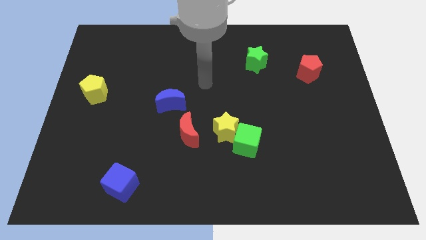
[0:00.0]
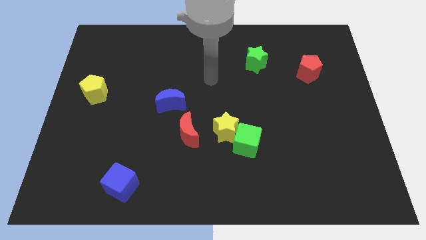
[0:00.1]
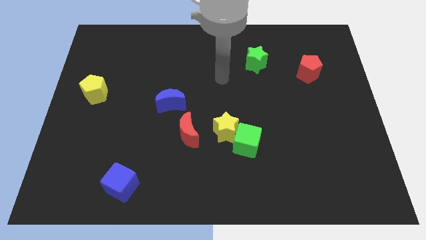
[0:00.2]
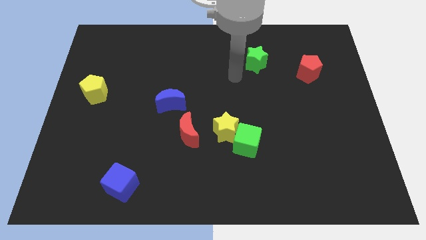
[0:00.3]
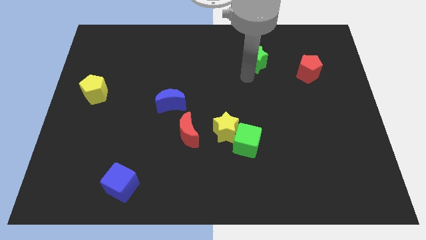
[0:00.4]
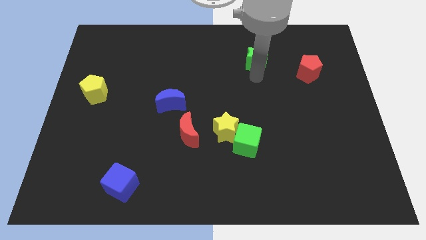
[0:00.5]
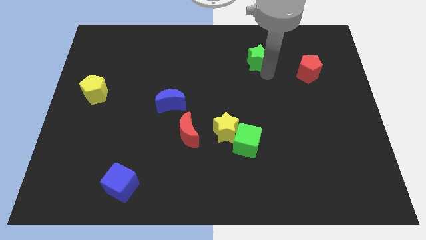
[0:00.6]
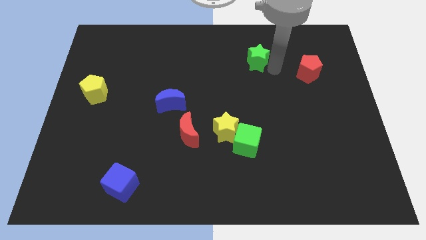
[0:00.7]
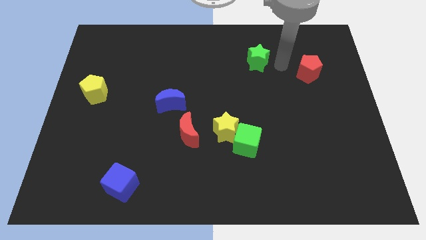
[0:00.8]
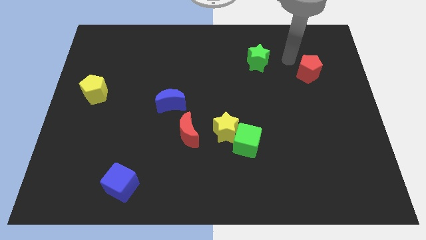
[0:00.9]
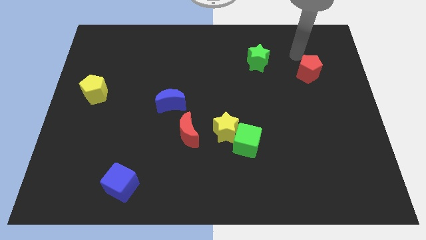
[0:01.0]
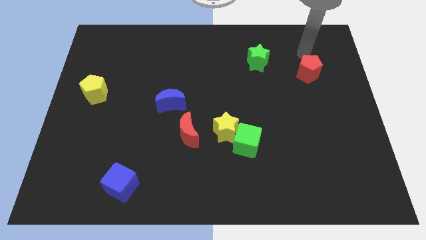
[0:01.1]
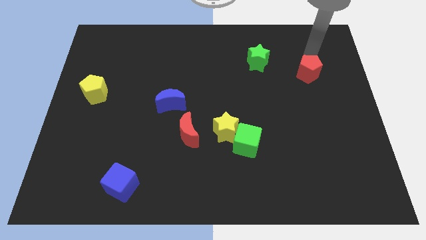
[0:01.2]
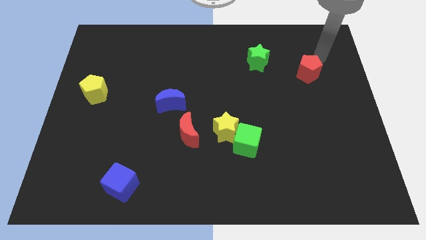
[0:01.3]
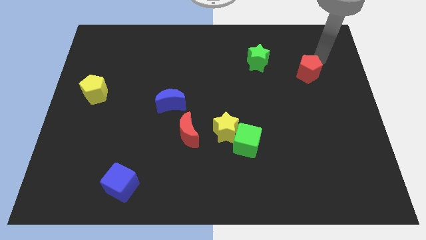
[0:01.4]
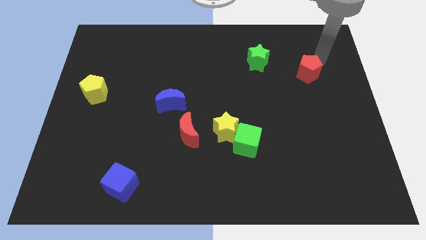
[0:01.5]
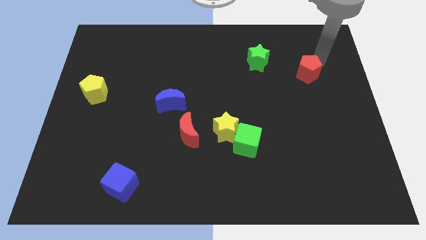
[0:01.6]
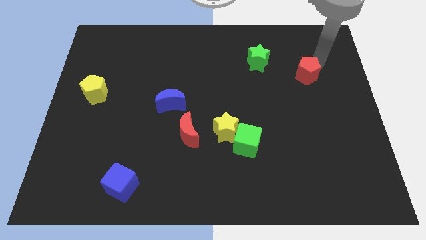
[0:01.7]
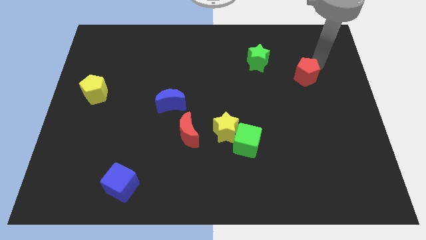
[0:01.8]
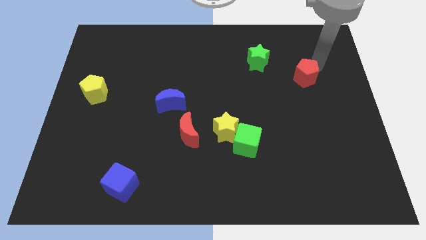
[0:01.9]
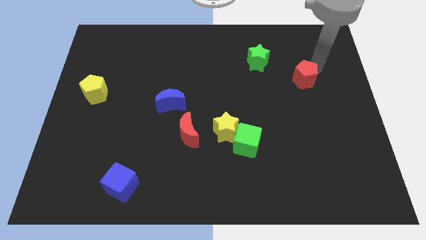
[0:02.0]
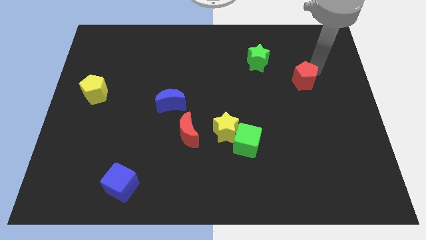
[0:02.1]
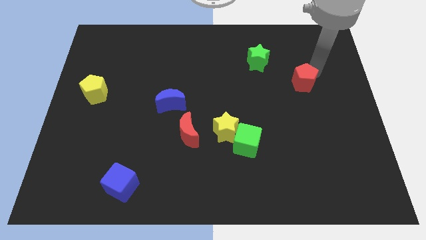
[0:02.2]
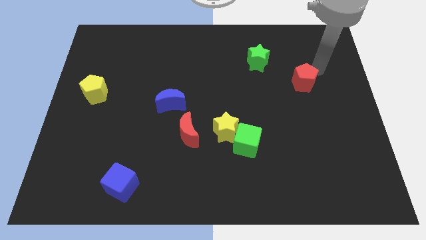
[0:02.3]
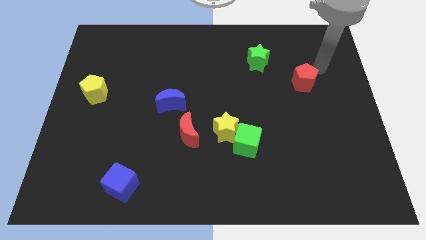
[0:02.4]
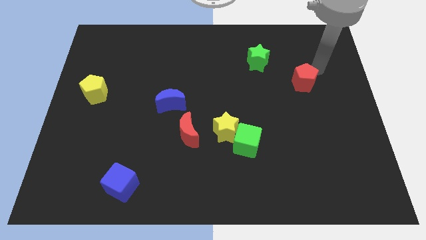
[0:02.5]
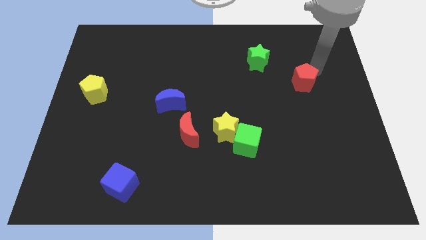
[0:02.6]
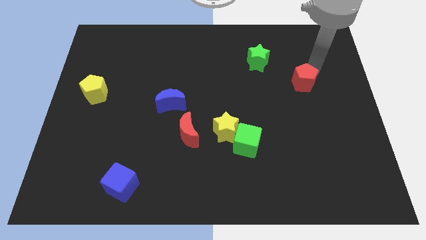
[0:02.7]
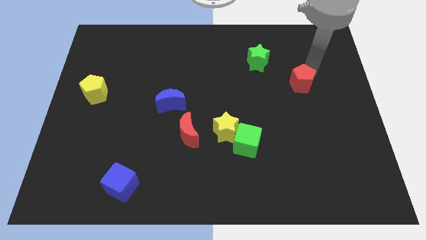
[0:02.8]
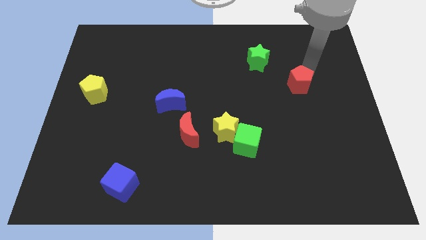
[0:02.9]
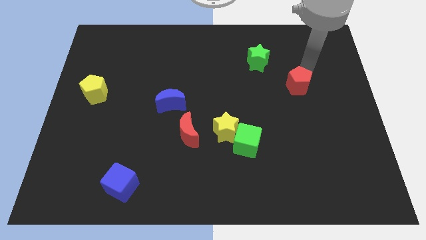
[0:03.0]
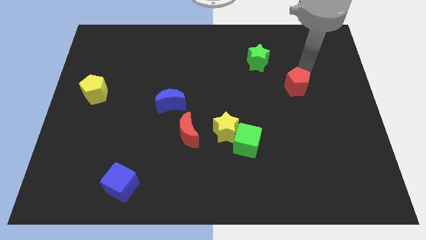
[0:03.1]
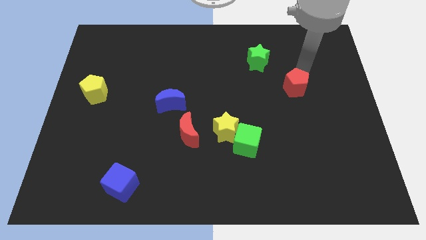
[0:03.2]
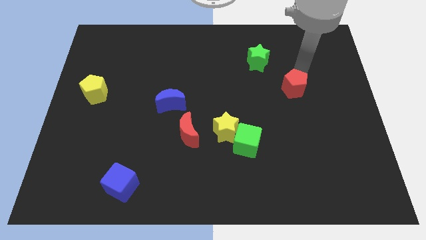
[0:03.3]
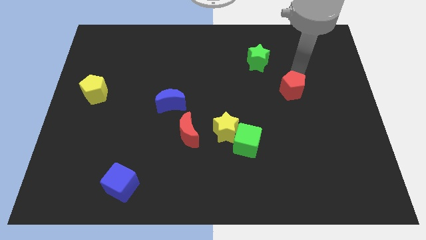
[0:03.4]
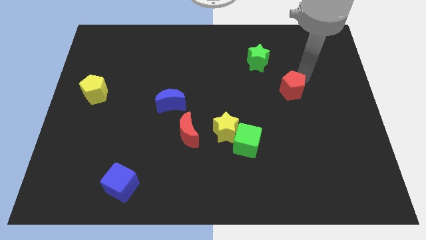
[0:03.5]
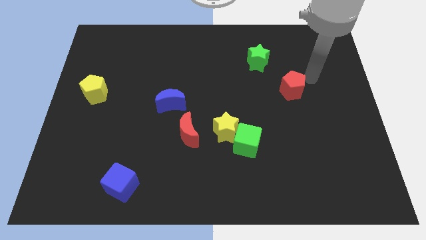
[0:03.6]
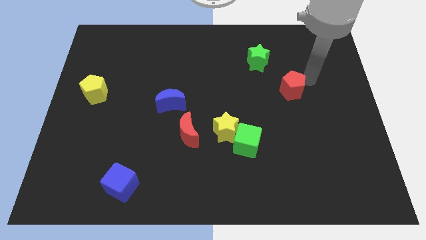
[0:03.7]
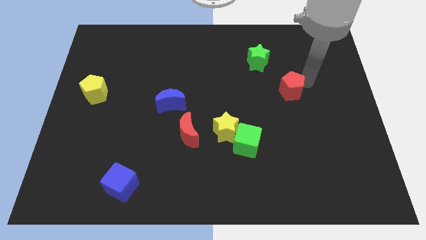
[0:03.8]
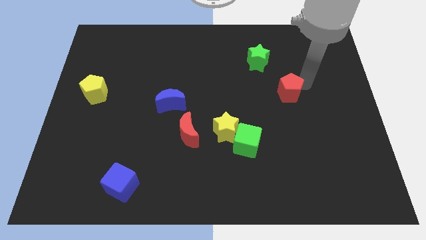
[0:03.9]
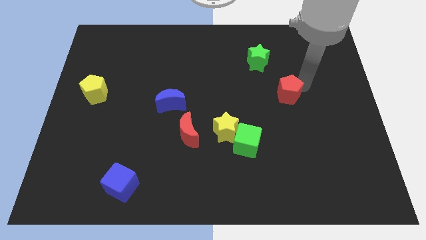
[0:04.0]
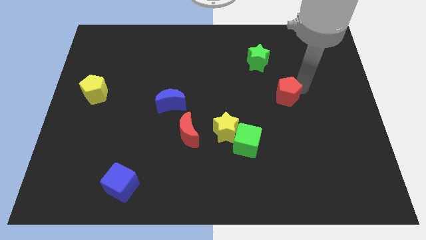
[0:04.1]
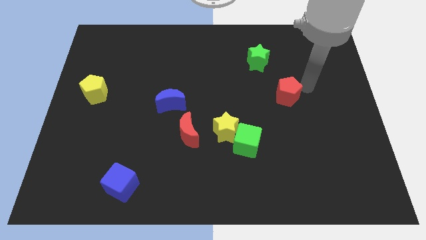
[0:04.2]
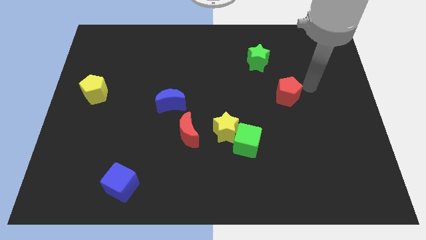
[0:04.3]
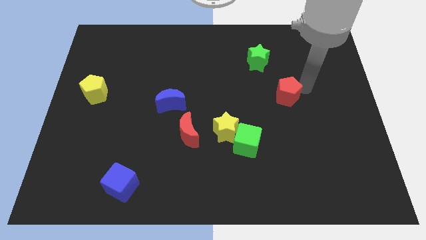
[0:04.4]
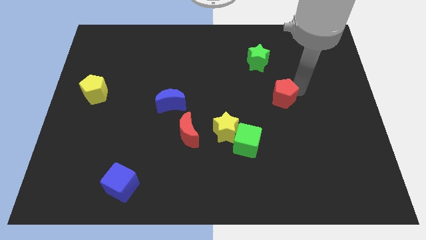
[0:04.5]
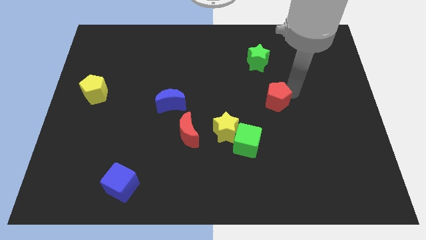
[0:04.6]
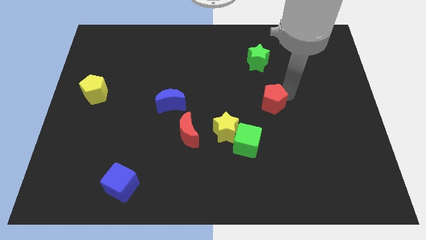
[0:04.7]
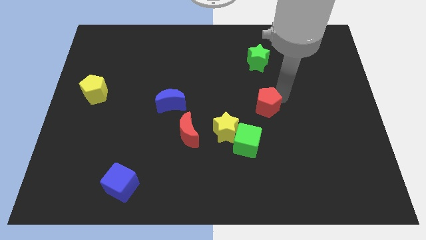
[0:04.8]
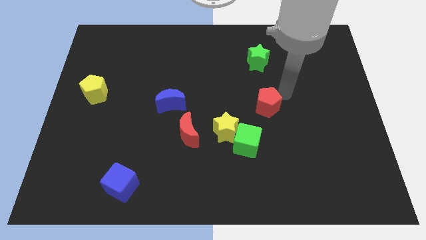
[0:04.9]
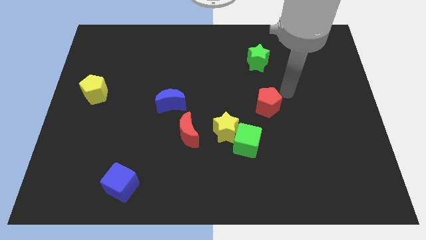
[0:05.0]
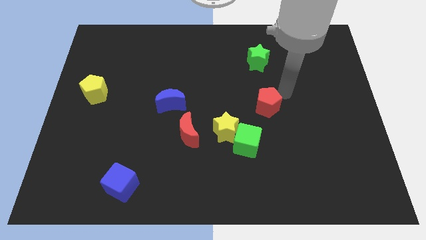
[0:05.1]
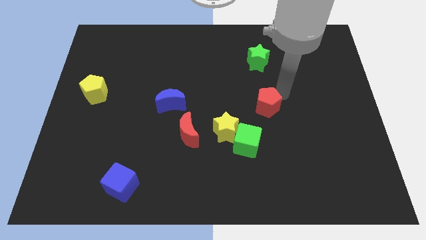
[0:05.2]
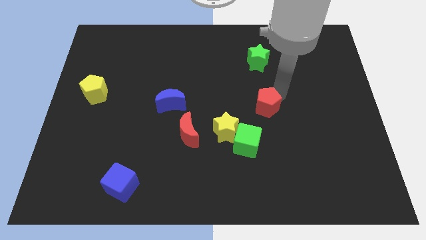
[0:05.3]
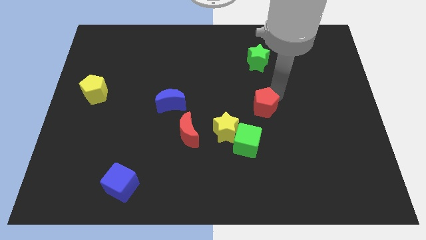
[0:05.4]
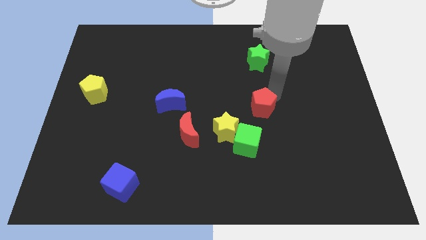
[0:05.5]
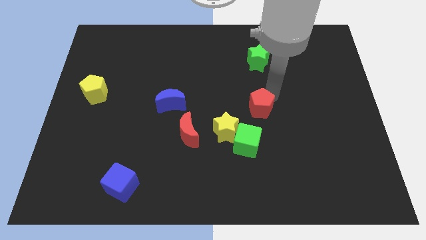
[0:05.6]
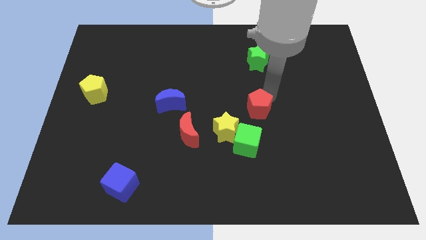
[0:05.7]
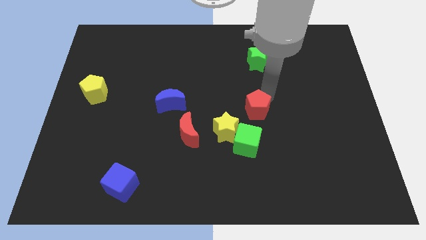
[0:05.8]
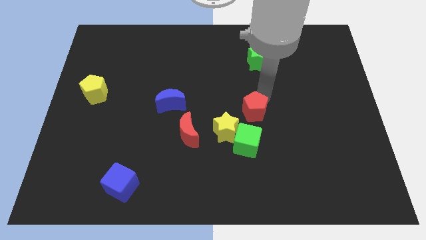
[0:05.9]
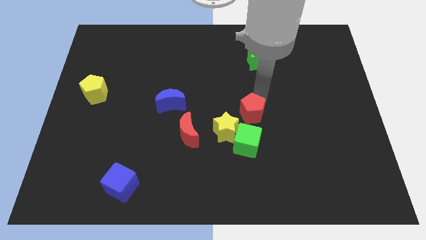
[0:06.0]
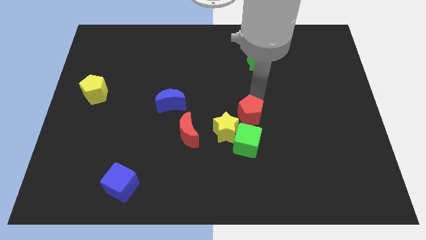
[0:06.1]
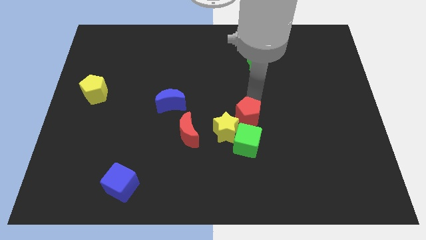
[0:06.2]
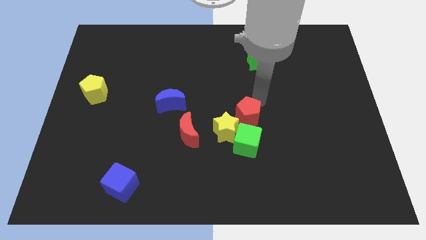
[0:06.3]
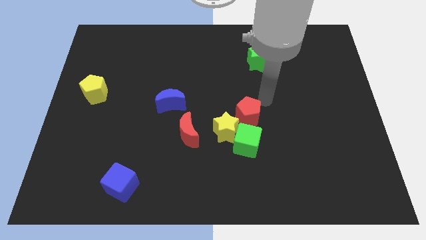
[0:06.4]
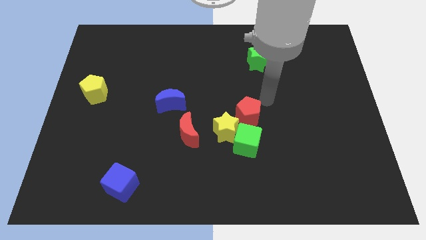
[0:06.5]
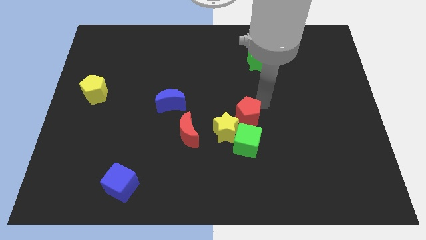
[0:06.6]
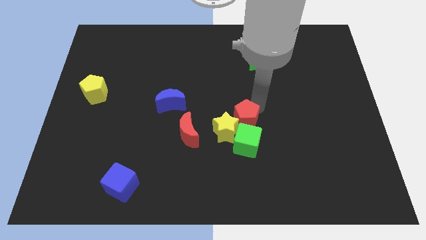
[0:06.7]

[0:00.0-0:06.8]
slide the red pentagon to the yellow star

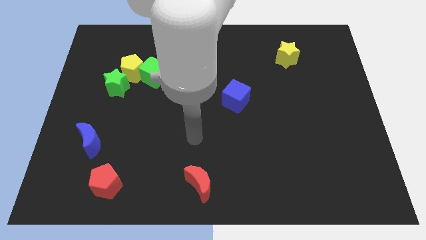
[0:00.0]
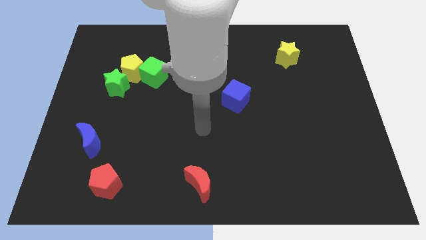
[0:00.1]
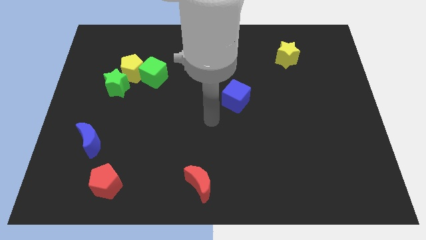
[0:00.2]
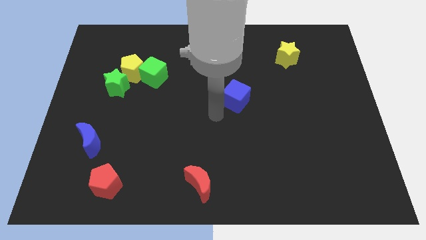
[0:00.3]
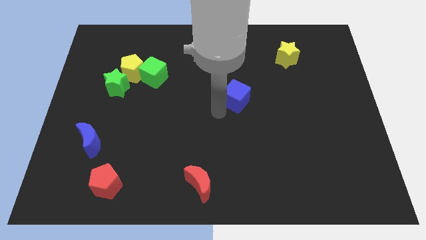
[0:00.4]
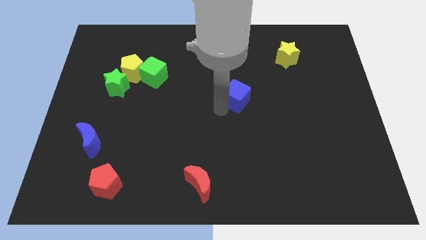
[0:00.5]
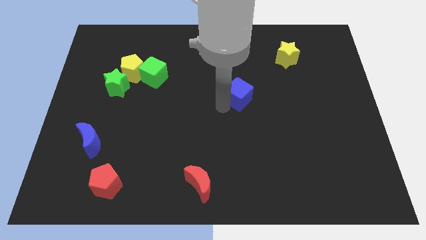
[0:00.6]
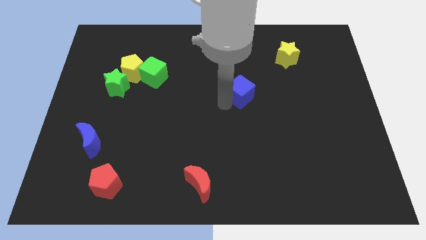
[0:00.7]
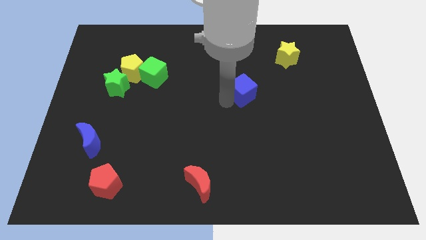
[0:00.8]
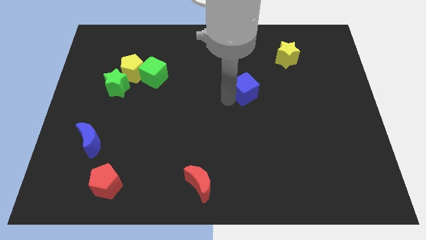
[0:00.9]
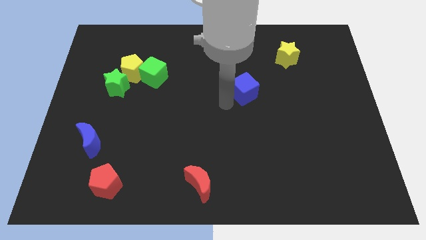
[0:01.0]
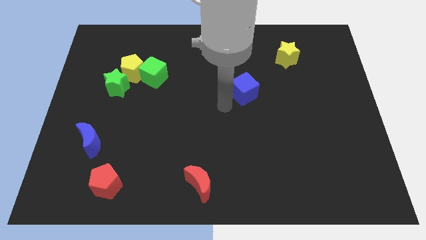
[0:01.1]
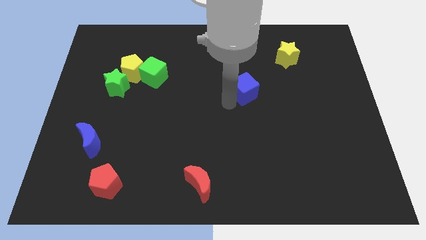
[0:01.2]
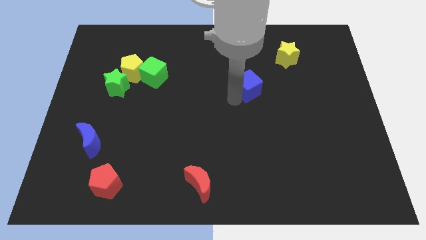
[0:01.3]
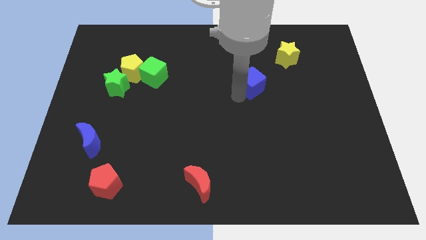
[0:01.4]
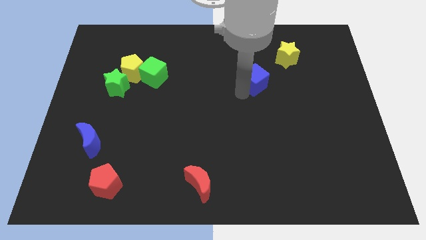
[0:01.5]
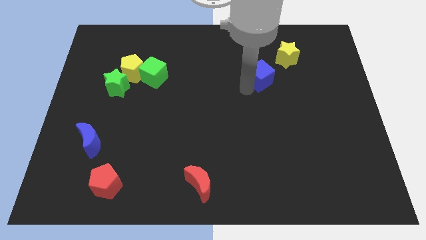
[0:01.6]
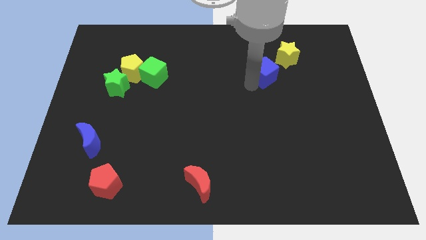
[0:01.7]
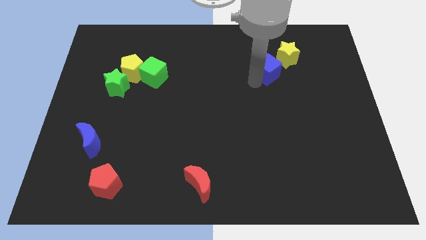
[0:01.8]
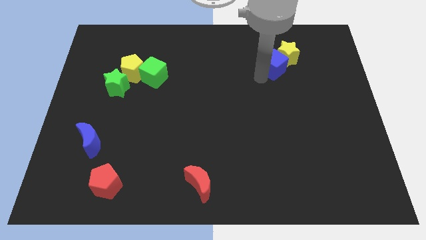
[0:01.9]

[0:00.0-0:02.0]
put the blue cube towards the yellow star
